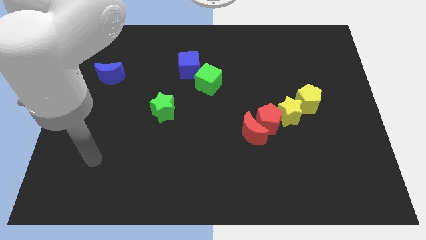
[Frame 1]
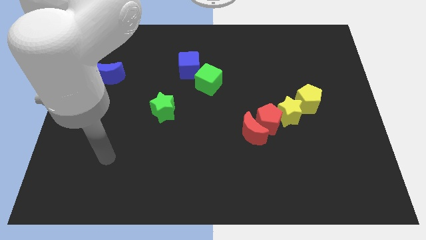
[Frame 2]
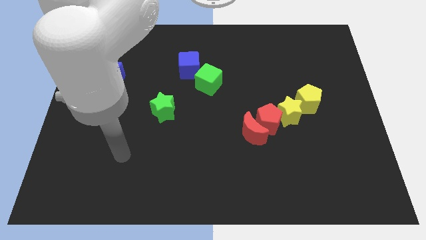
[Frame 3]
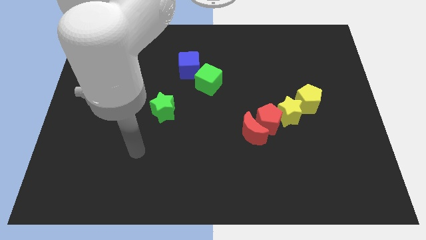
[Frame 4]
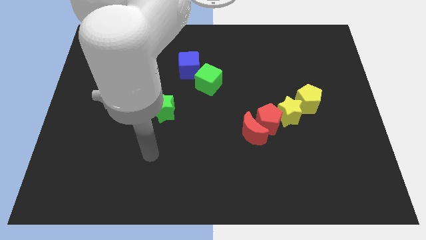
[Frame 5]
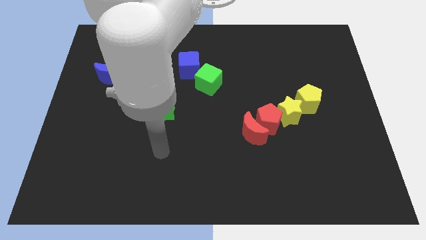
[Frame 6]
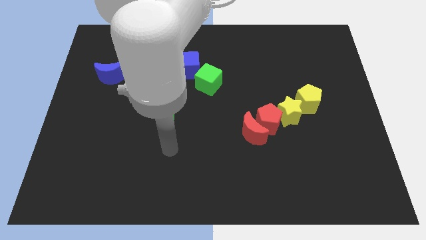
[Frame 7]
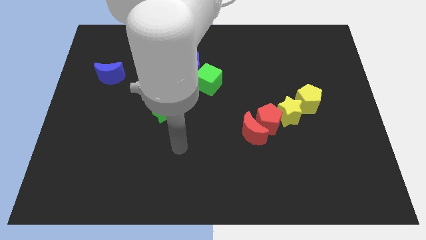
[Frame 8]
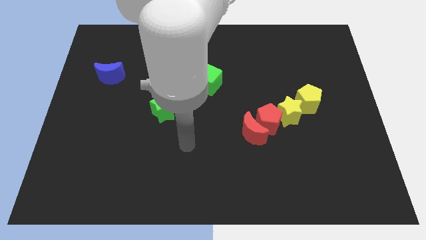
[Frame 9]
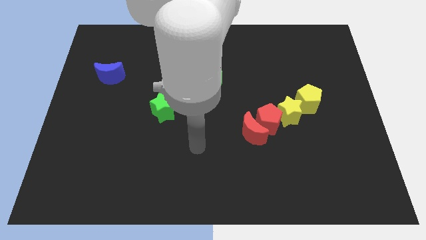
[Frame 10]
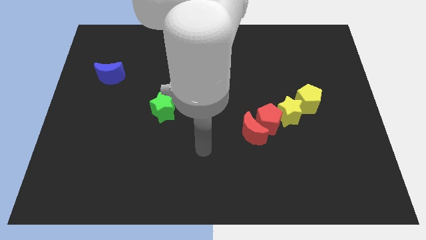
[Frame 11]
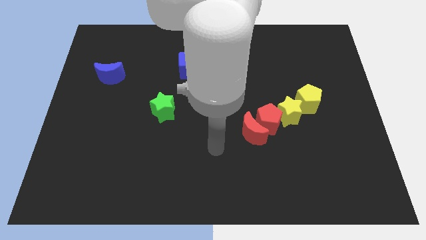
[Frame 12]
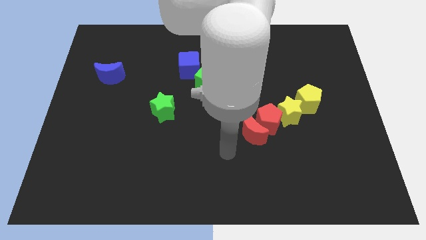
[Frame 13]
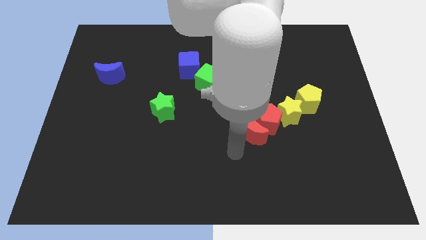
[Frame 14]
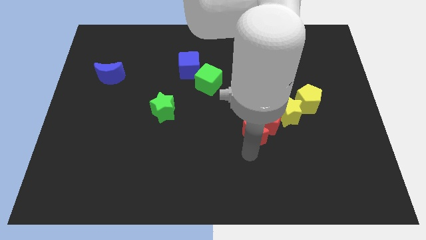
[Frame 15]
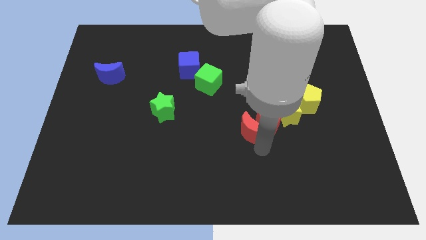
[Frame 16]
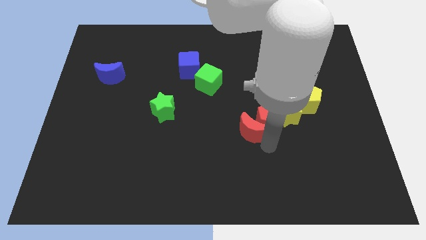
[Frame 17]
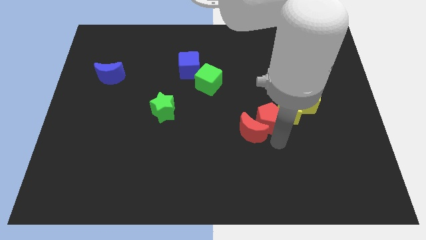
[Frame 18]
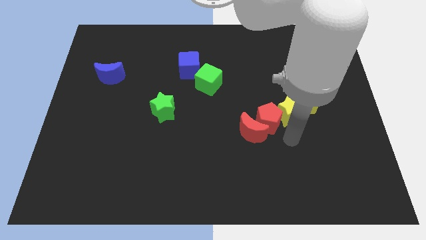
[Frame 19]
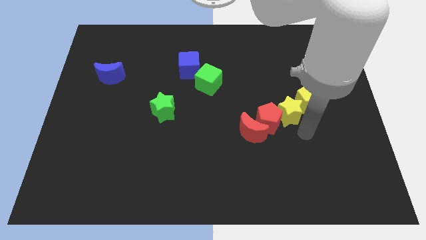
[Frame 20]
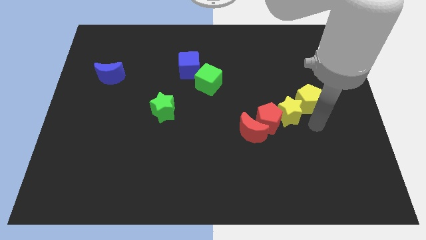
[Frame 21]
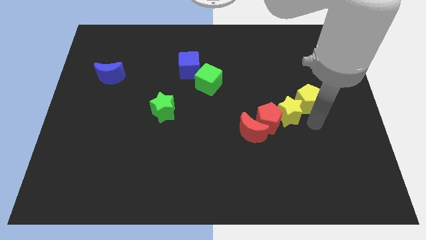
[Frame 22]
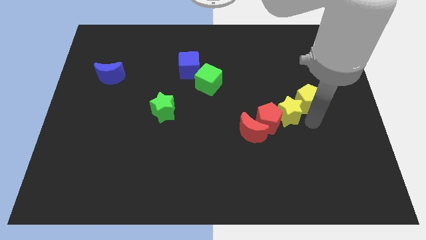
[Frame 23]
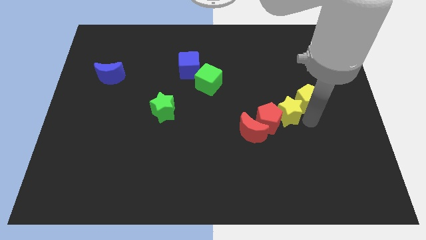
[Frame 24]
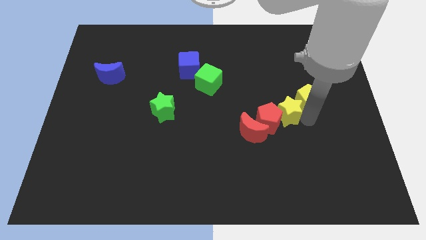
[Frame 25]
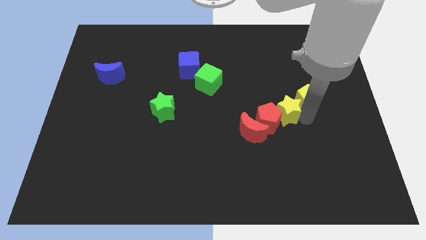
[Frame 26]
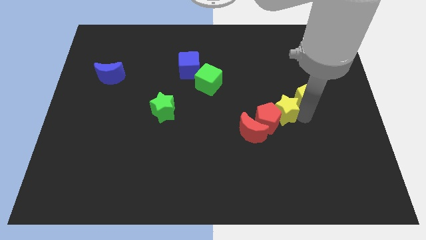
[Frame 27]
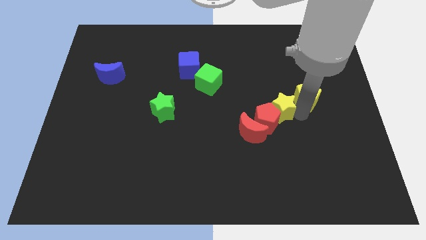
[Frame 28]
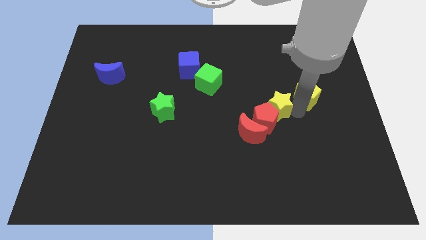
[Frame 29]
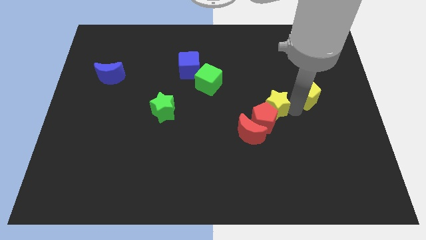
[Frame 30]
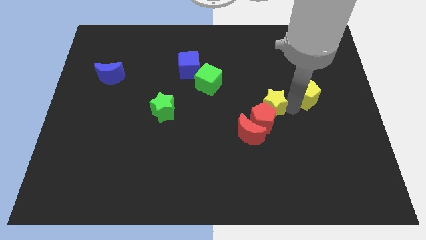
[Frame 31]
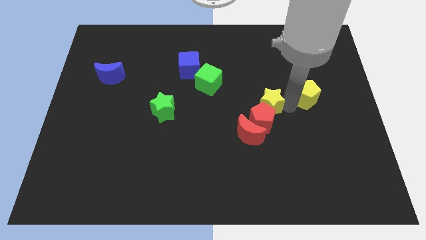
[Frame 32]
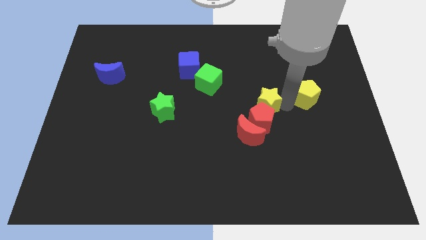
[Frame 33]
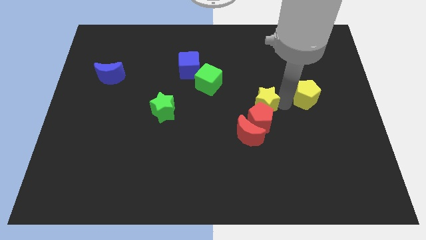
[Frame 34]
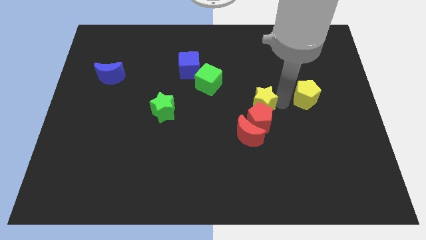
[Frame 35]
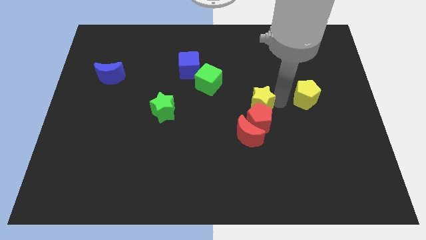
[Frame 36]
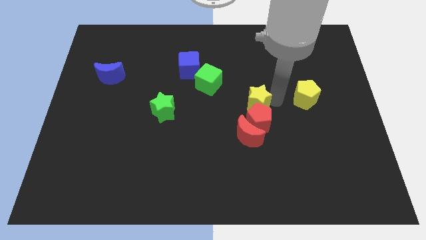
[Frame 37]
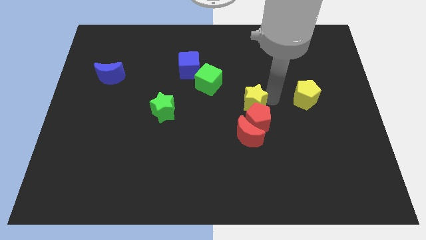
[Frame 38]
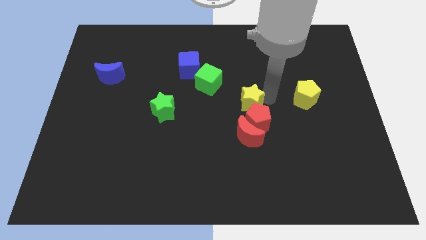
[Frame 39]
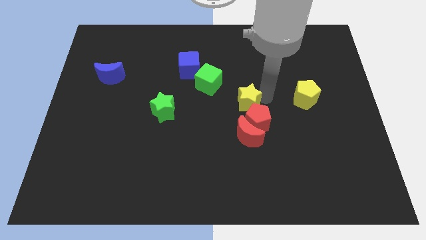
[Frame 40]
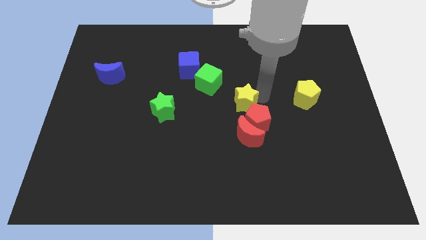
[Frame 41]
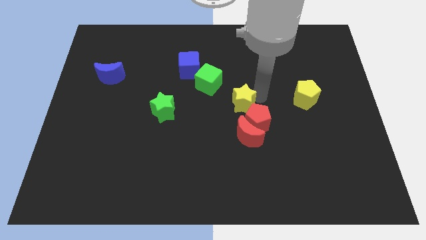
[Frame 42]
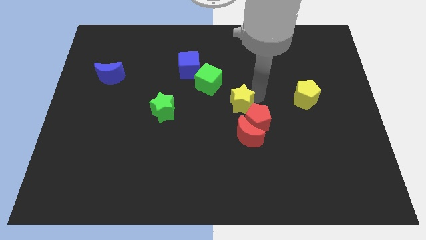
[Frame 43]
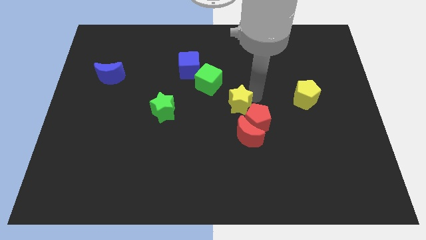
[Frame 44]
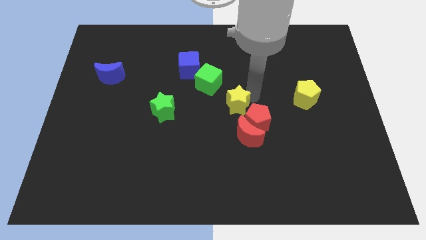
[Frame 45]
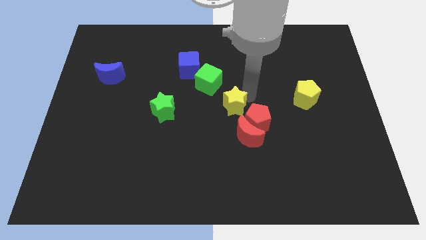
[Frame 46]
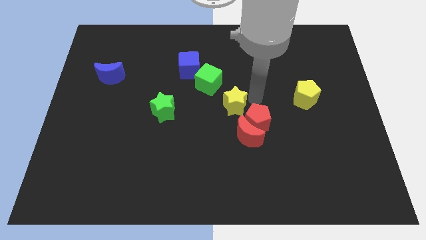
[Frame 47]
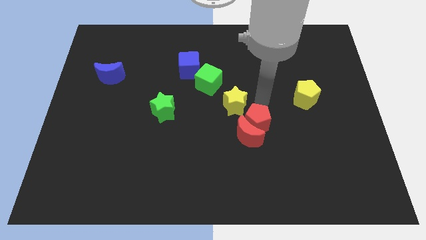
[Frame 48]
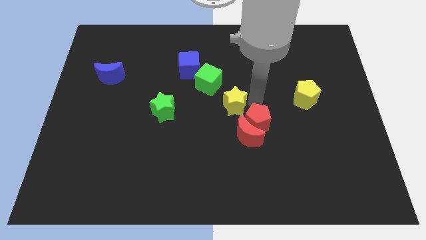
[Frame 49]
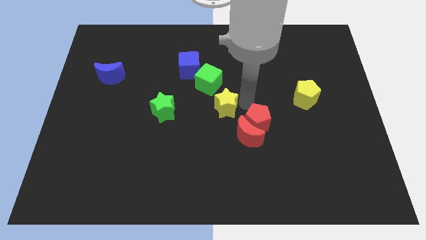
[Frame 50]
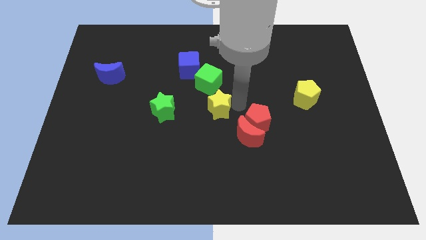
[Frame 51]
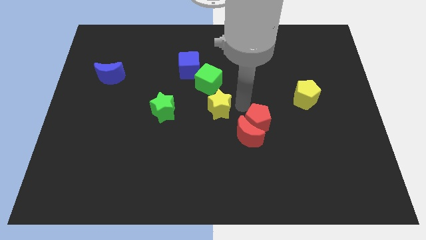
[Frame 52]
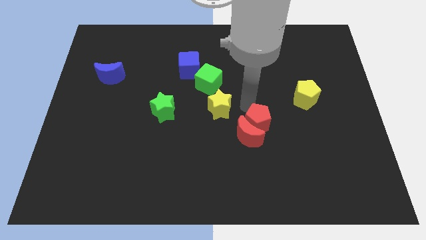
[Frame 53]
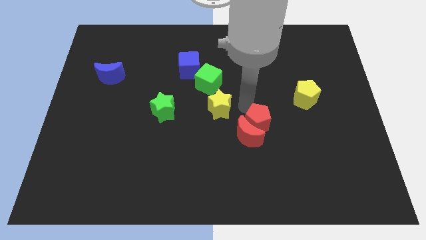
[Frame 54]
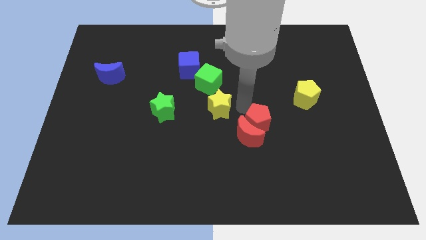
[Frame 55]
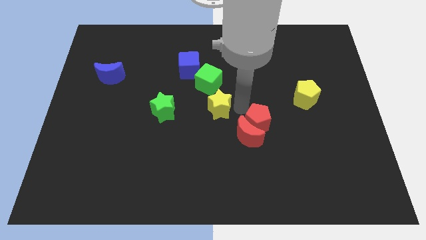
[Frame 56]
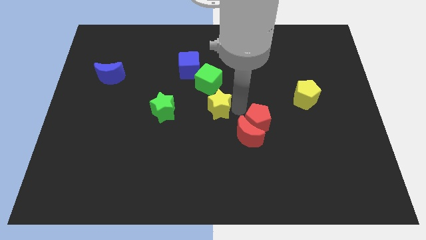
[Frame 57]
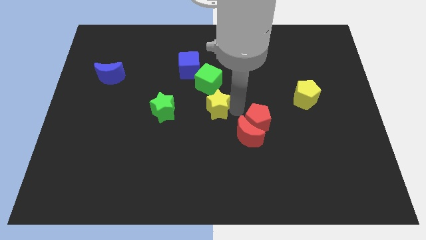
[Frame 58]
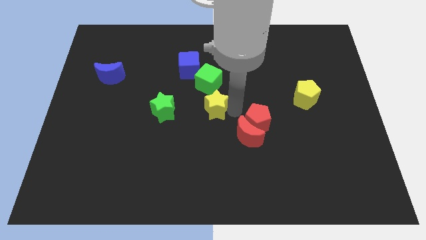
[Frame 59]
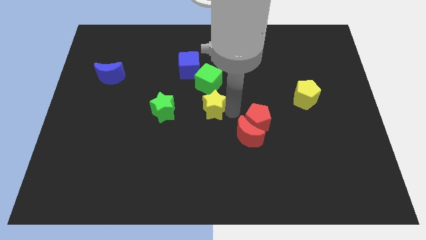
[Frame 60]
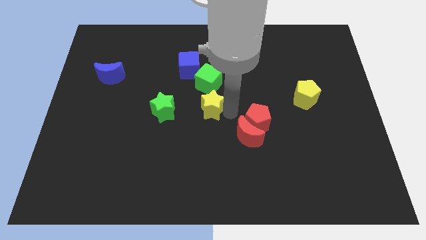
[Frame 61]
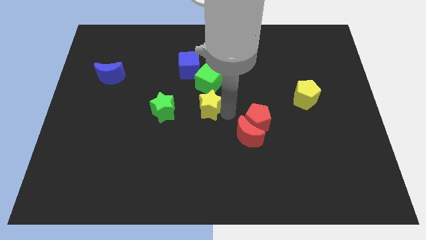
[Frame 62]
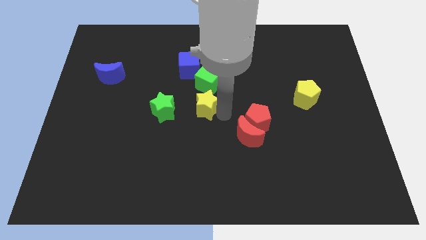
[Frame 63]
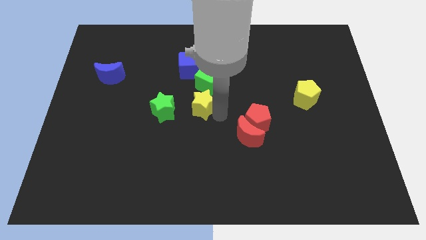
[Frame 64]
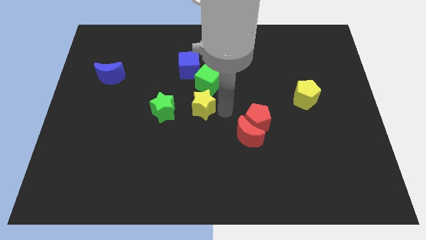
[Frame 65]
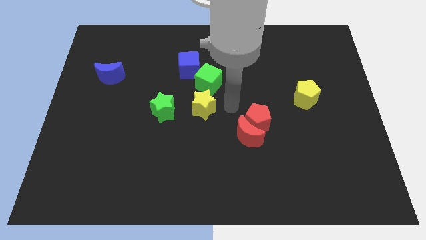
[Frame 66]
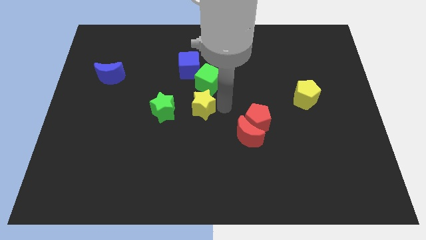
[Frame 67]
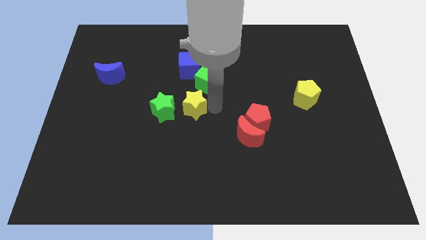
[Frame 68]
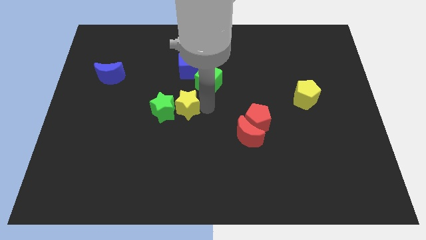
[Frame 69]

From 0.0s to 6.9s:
slide the yellow star next to the green star

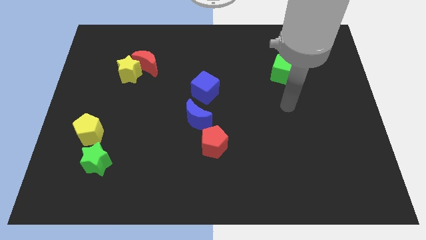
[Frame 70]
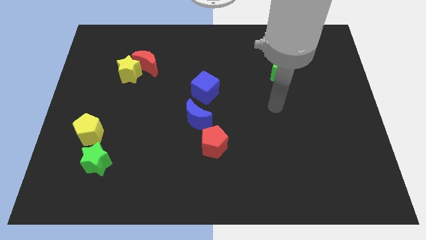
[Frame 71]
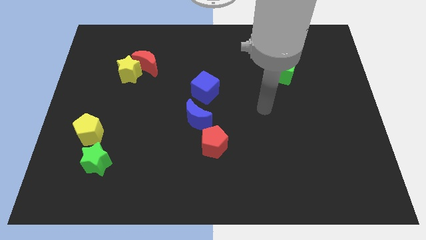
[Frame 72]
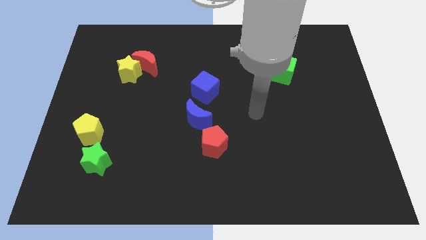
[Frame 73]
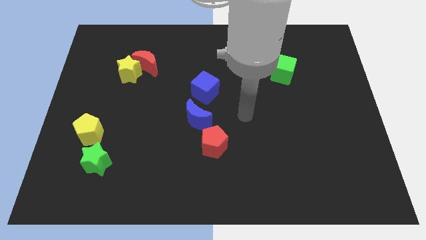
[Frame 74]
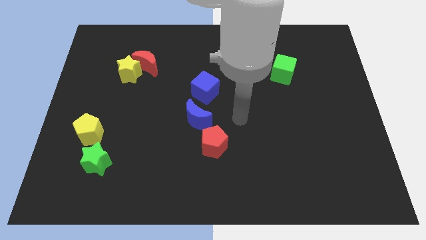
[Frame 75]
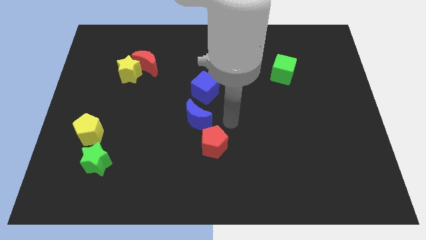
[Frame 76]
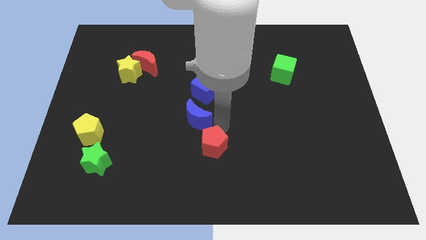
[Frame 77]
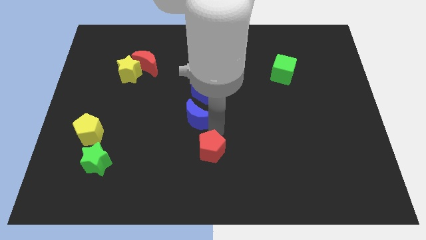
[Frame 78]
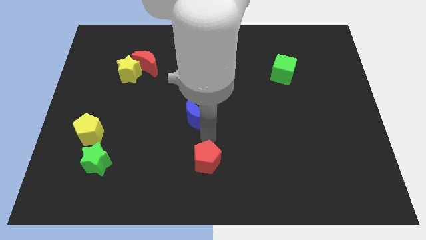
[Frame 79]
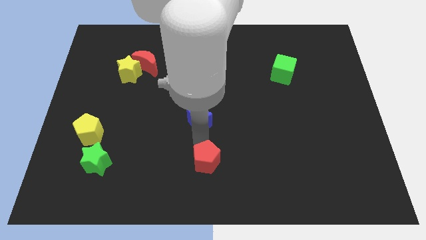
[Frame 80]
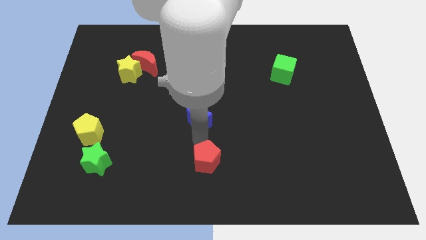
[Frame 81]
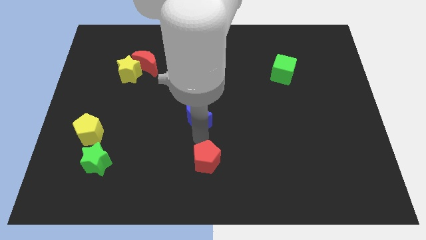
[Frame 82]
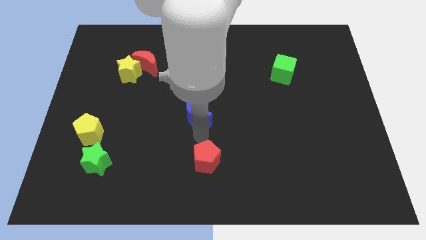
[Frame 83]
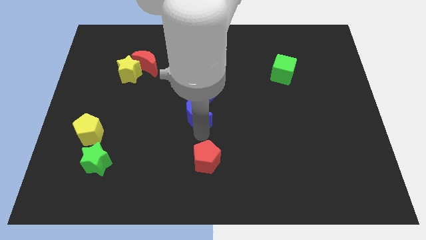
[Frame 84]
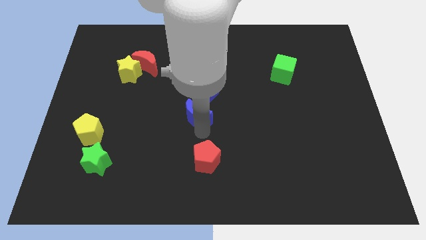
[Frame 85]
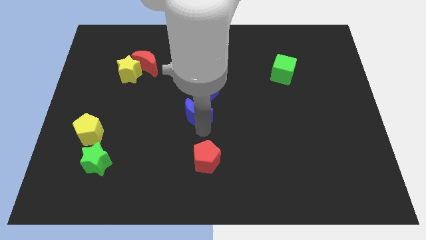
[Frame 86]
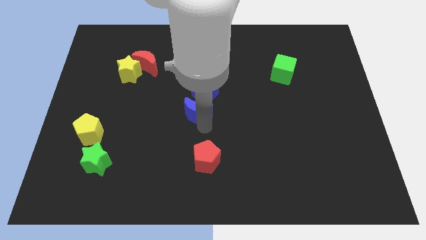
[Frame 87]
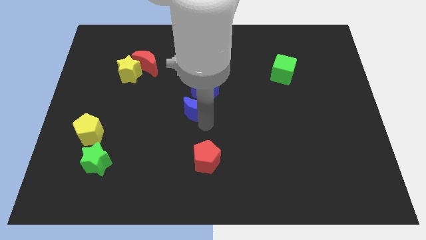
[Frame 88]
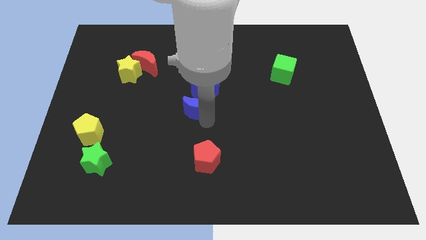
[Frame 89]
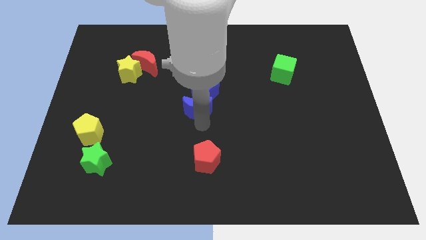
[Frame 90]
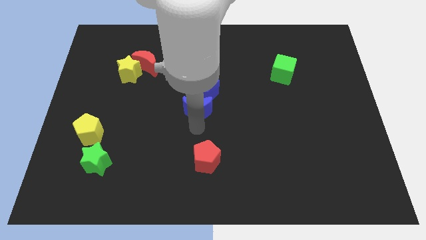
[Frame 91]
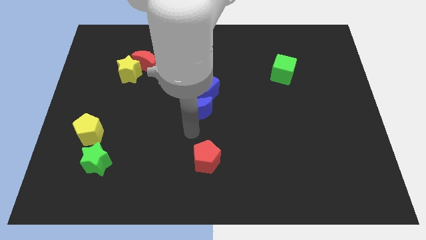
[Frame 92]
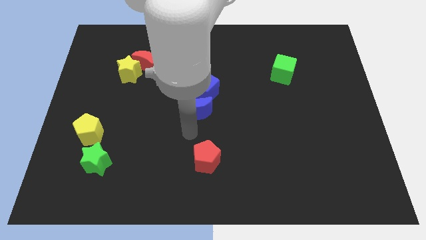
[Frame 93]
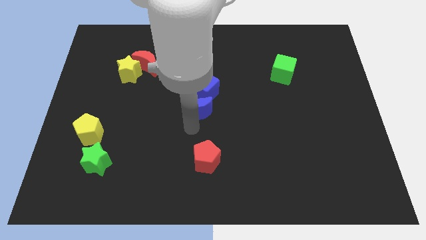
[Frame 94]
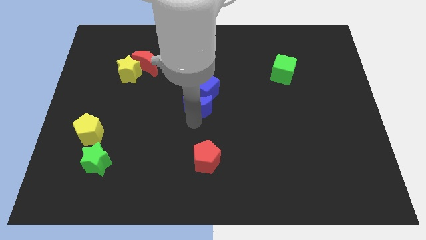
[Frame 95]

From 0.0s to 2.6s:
slide the blue moon towards the blue cube
